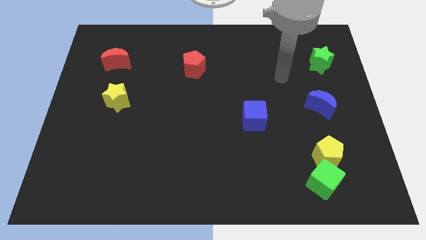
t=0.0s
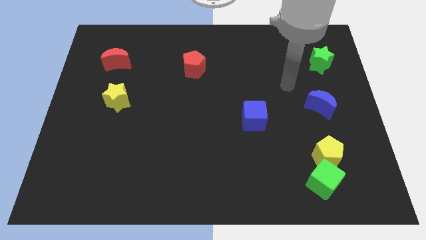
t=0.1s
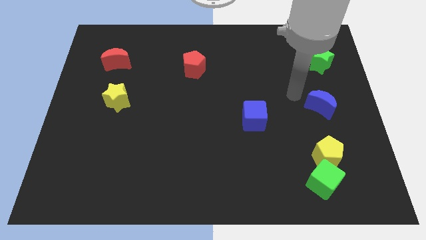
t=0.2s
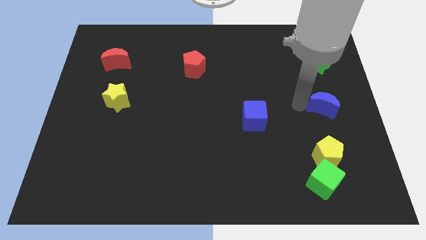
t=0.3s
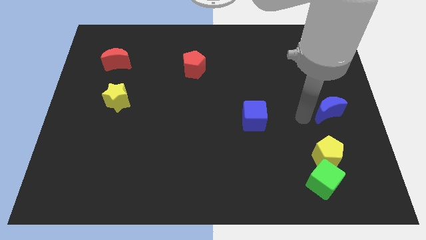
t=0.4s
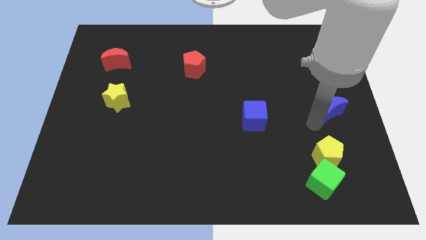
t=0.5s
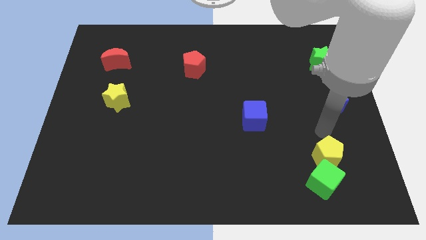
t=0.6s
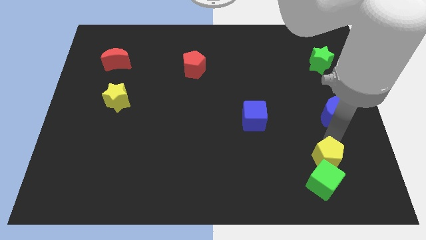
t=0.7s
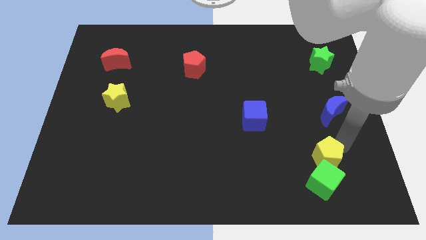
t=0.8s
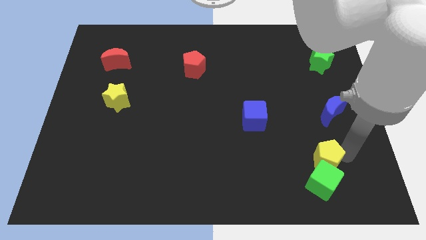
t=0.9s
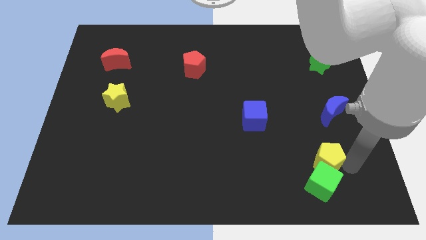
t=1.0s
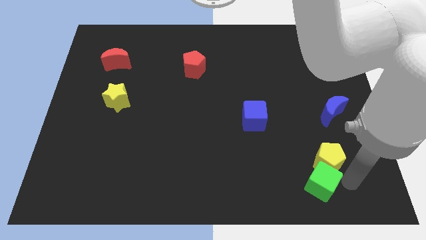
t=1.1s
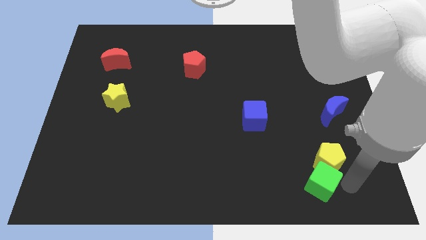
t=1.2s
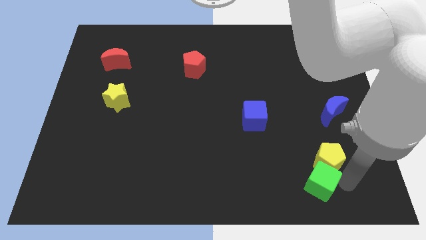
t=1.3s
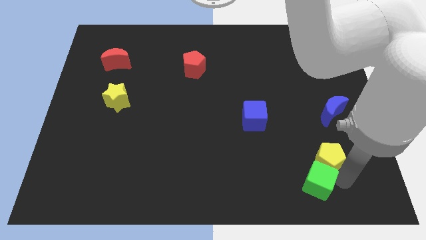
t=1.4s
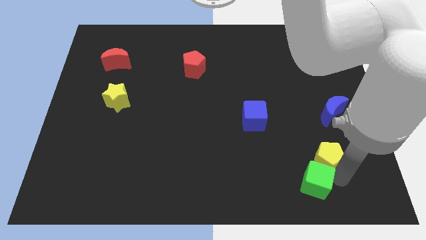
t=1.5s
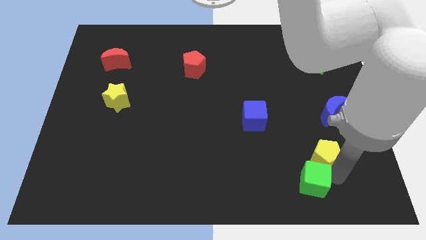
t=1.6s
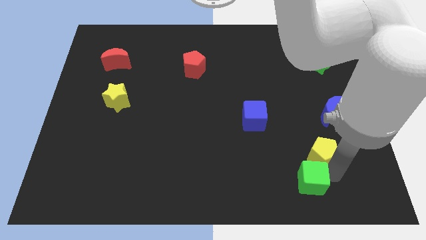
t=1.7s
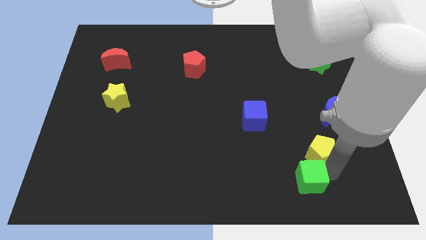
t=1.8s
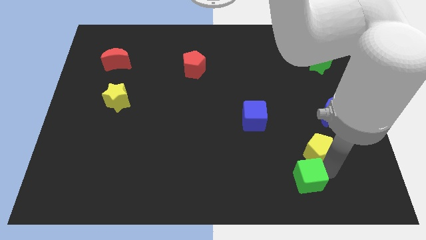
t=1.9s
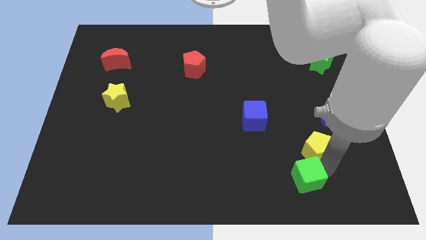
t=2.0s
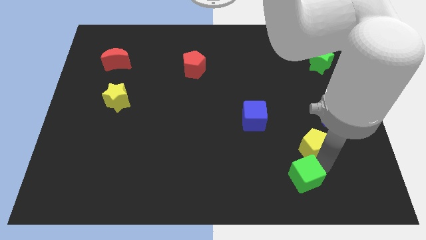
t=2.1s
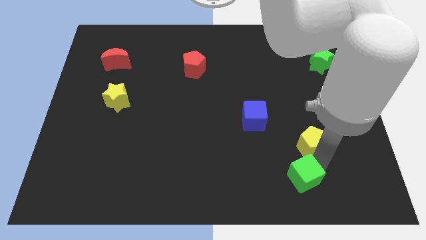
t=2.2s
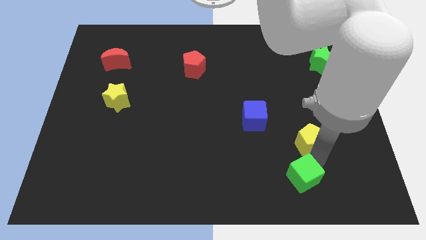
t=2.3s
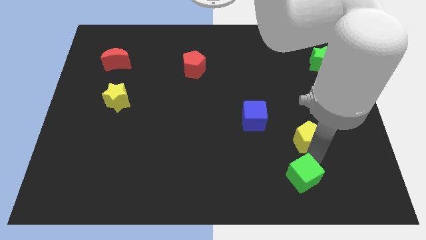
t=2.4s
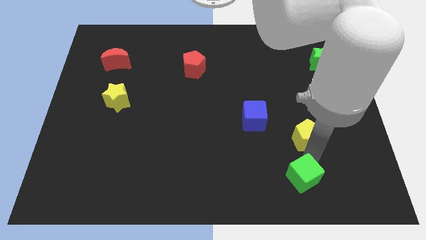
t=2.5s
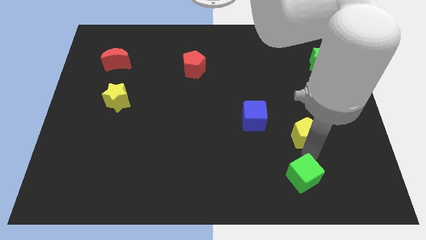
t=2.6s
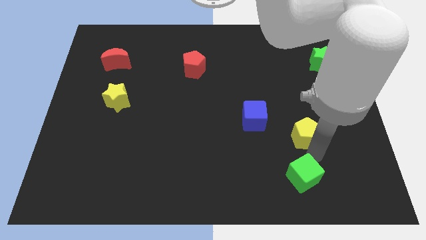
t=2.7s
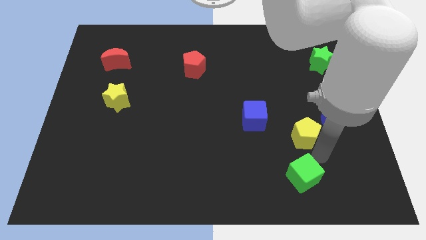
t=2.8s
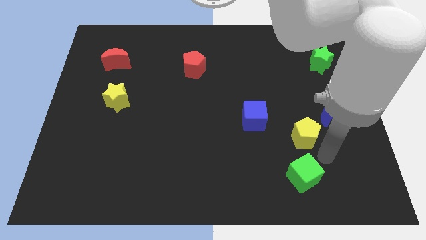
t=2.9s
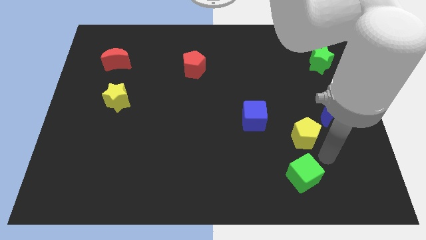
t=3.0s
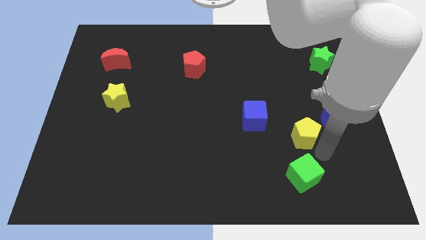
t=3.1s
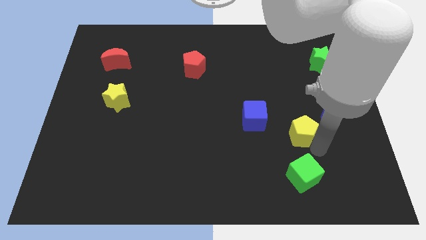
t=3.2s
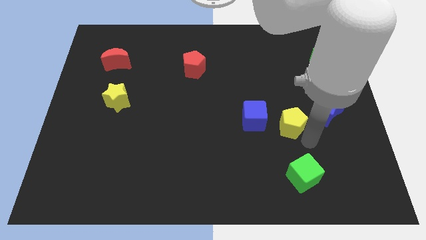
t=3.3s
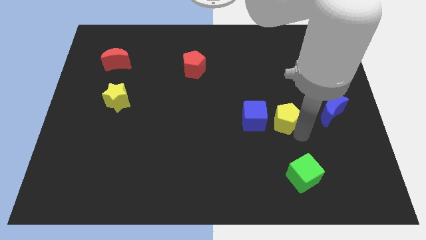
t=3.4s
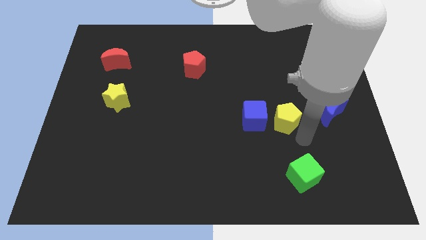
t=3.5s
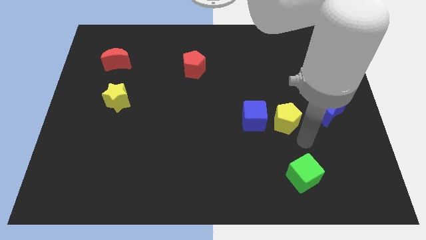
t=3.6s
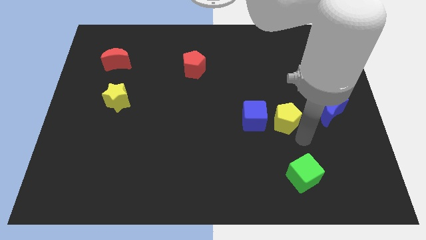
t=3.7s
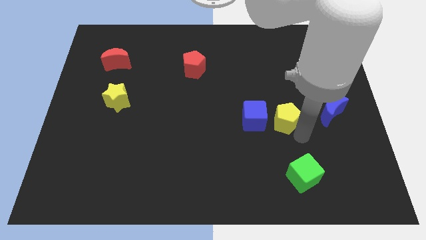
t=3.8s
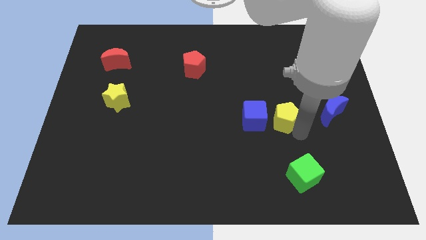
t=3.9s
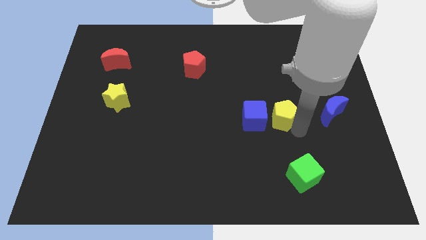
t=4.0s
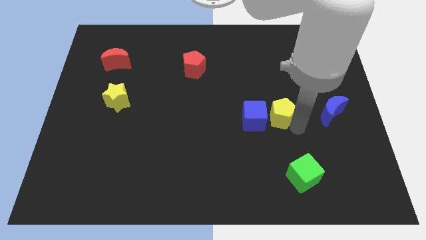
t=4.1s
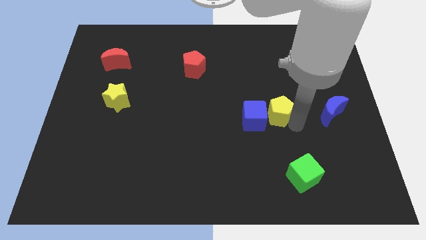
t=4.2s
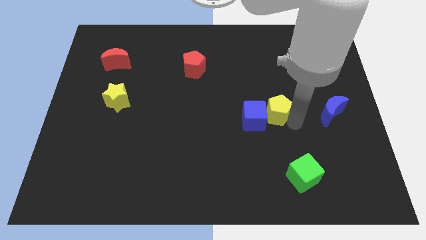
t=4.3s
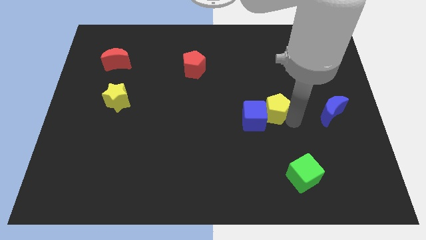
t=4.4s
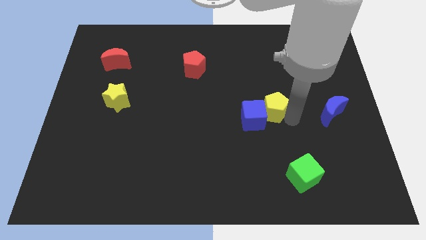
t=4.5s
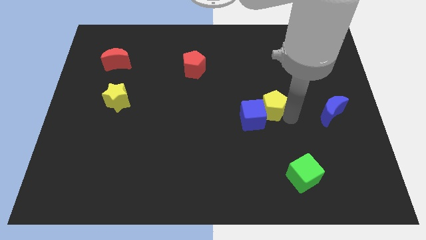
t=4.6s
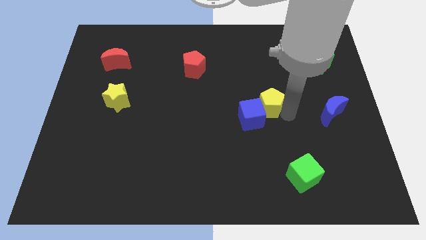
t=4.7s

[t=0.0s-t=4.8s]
push the yellow pentagon to the top side of the blue cube

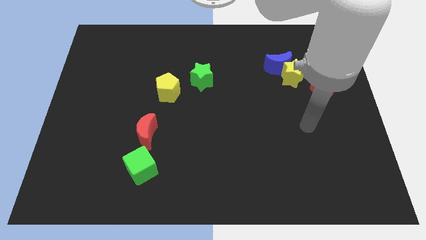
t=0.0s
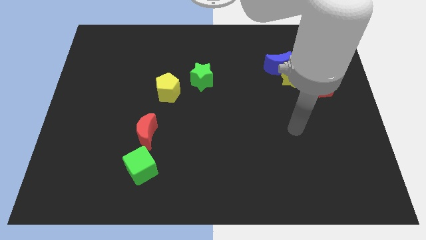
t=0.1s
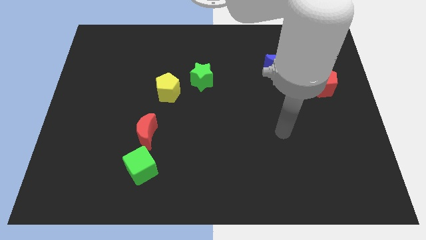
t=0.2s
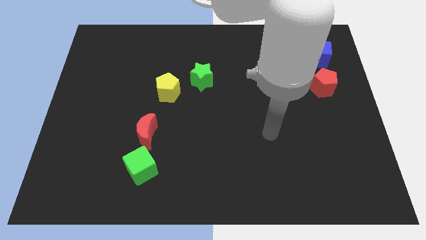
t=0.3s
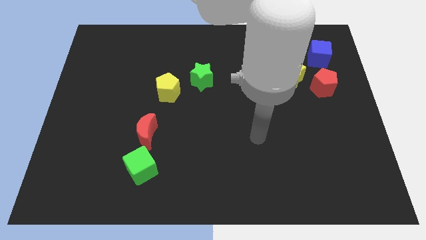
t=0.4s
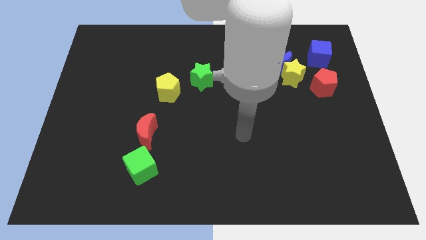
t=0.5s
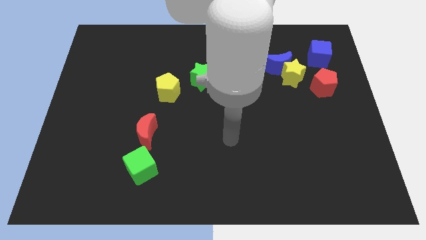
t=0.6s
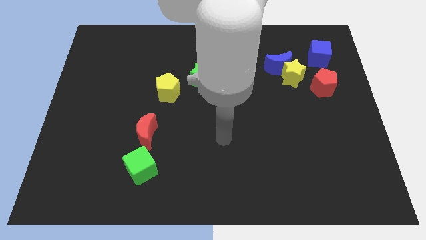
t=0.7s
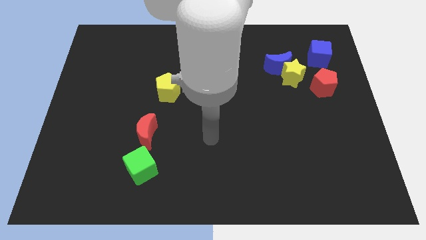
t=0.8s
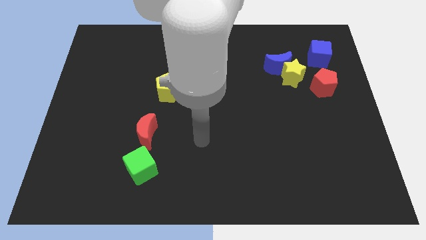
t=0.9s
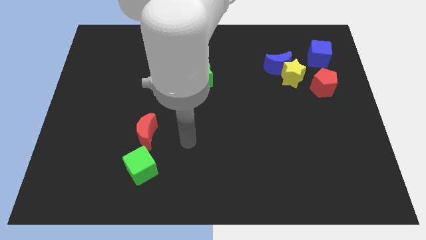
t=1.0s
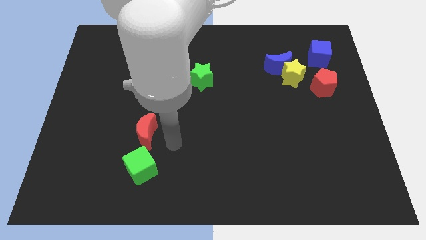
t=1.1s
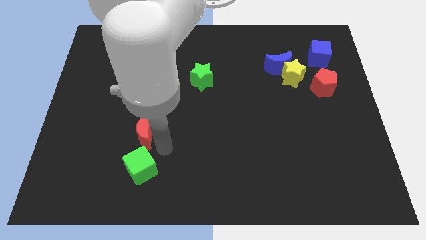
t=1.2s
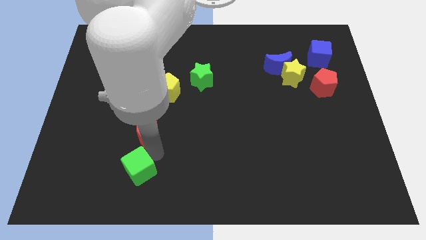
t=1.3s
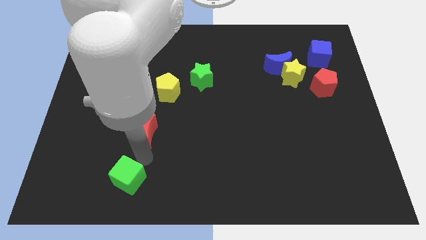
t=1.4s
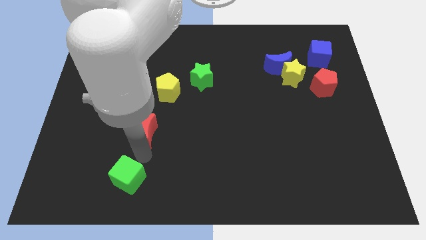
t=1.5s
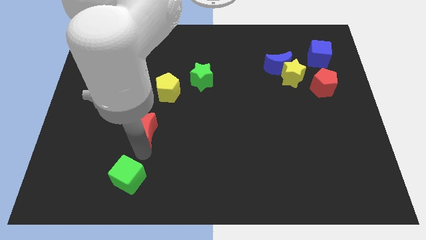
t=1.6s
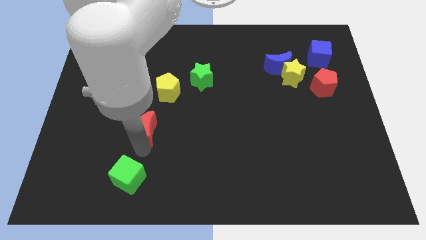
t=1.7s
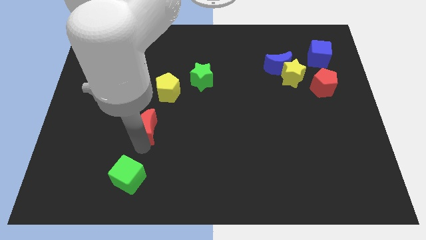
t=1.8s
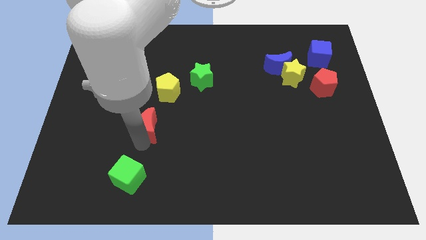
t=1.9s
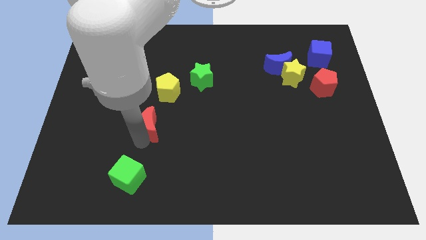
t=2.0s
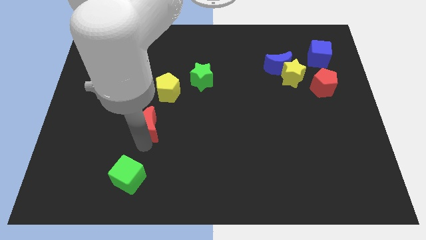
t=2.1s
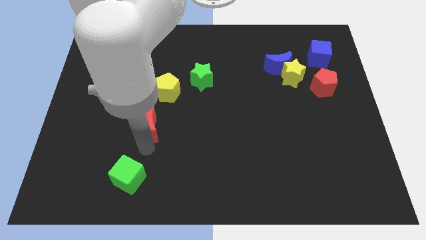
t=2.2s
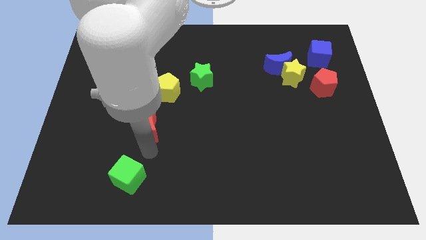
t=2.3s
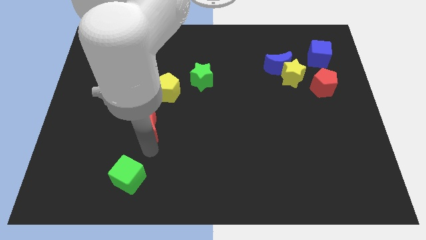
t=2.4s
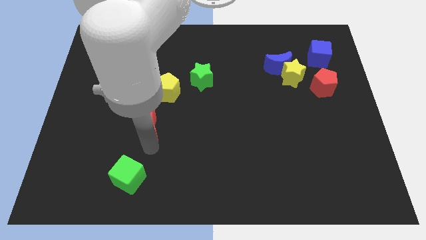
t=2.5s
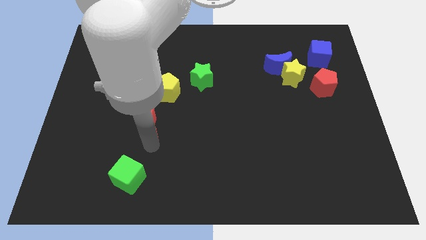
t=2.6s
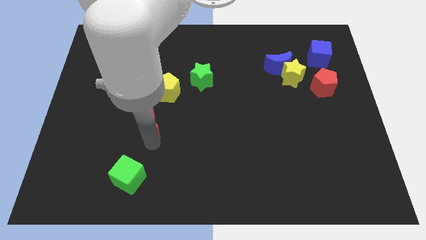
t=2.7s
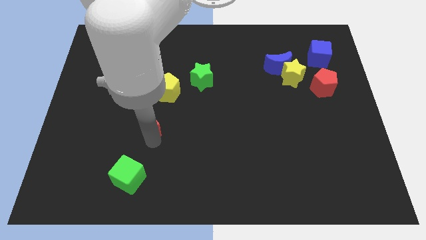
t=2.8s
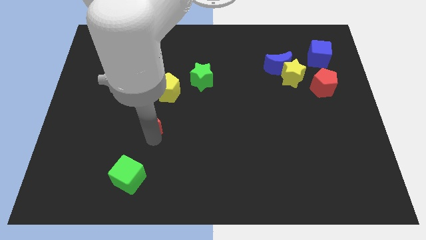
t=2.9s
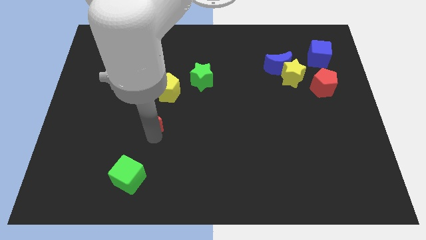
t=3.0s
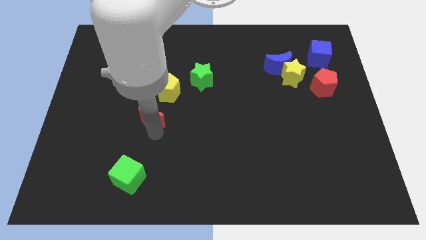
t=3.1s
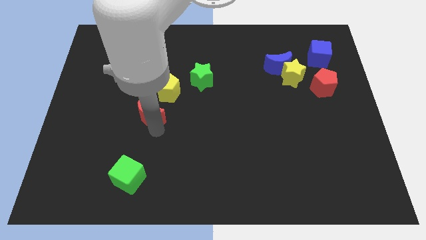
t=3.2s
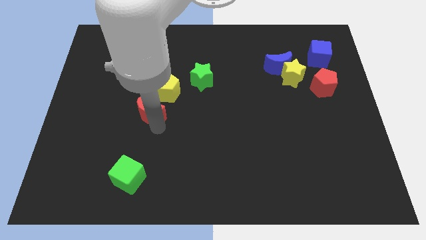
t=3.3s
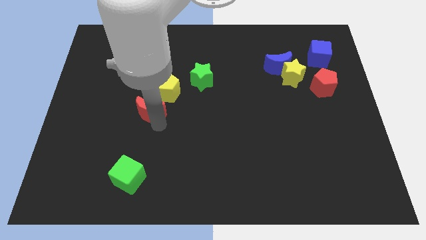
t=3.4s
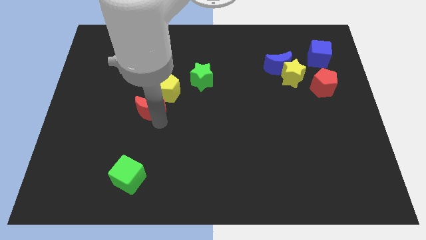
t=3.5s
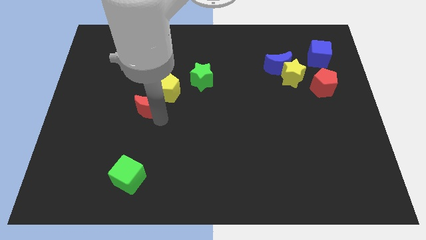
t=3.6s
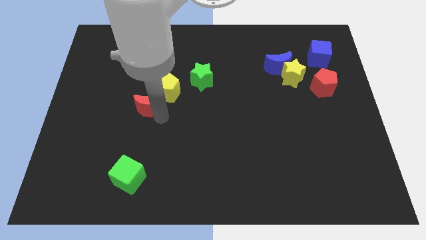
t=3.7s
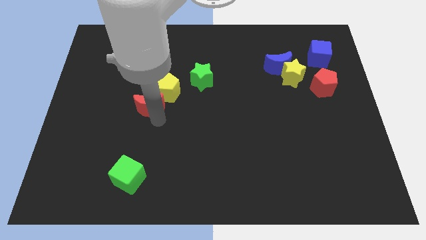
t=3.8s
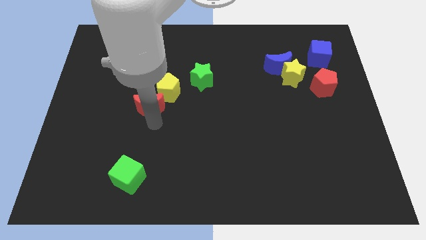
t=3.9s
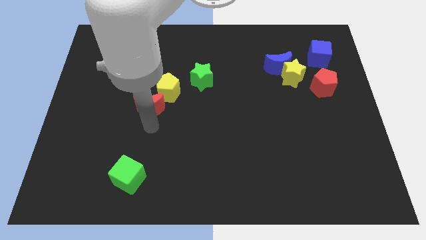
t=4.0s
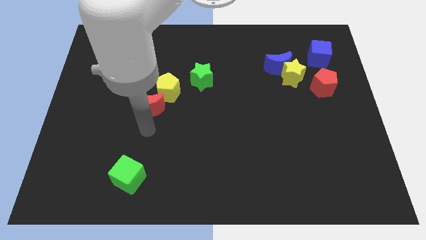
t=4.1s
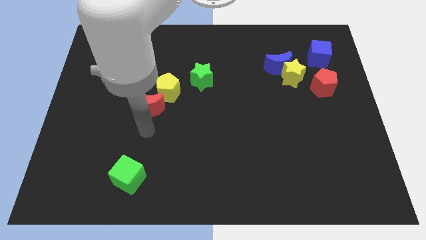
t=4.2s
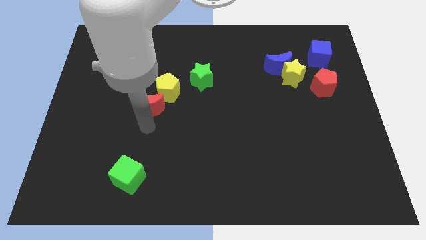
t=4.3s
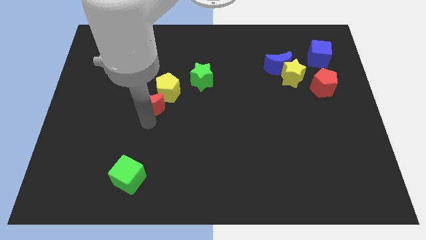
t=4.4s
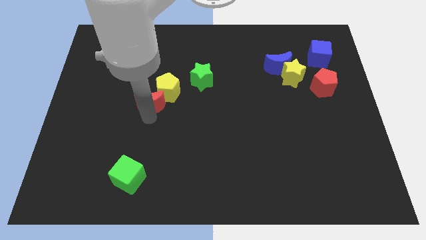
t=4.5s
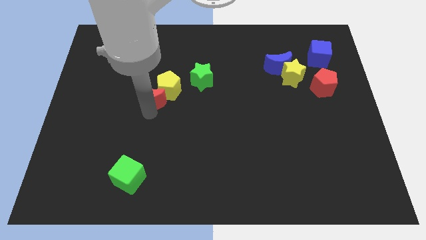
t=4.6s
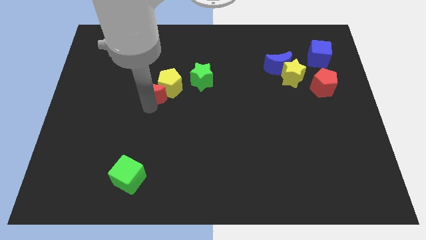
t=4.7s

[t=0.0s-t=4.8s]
move the red moon to the left of the green star
